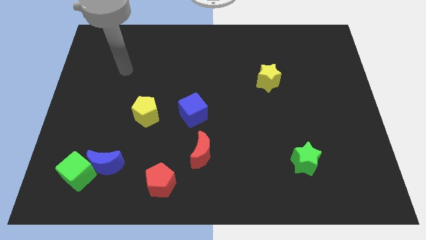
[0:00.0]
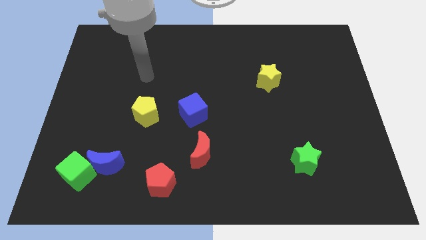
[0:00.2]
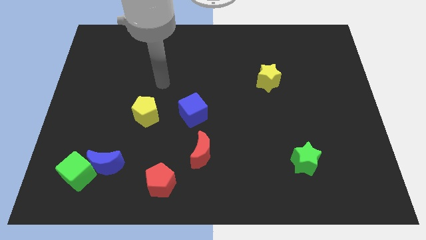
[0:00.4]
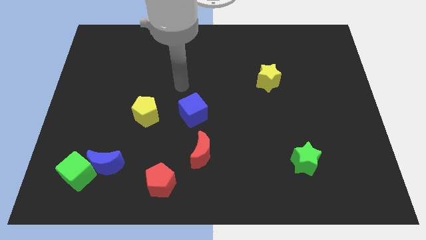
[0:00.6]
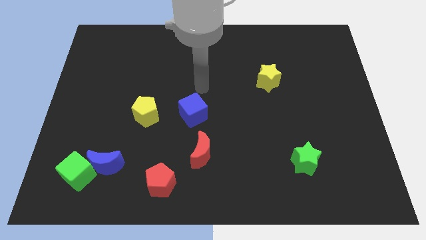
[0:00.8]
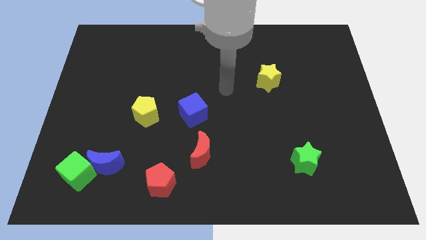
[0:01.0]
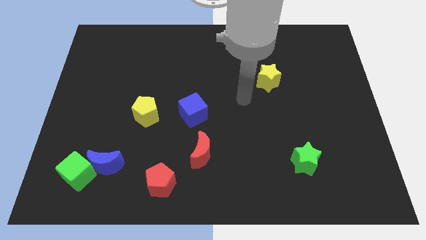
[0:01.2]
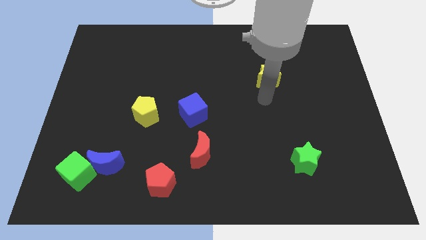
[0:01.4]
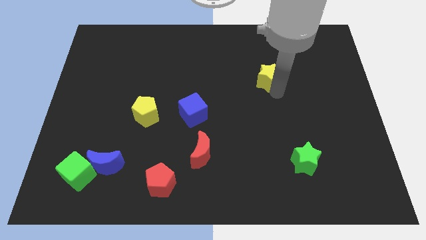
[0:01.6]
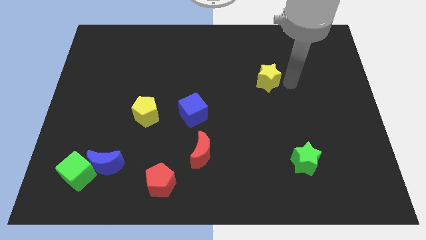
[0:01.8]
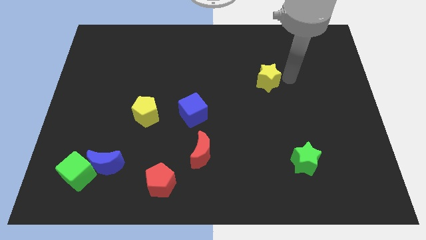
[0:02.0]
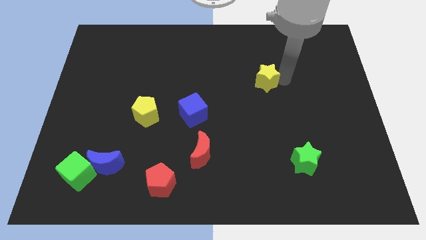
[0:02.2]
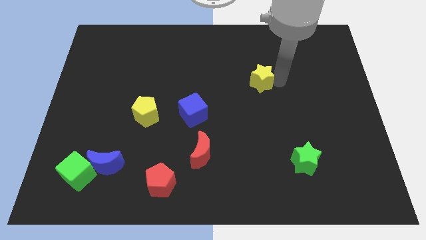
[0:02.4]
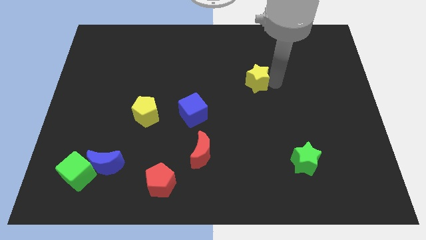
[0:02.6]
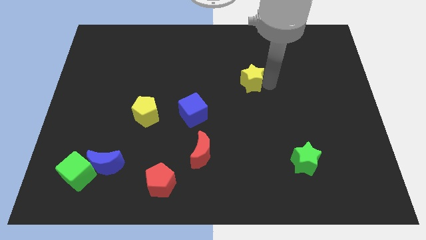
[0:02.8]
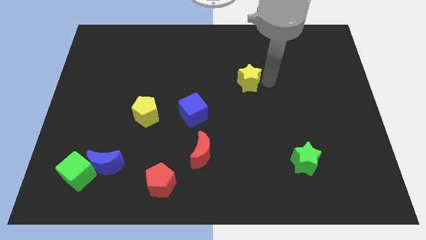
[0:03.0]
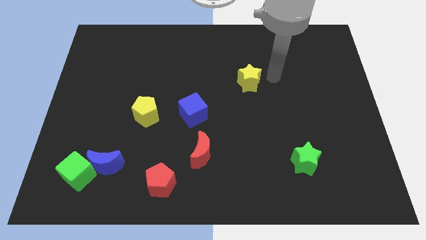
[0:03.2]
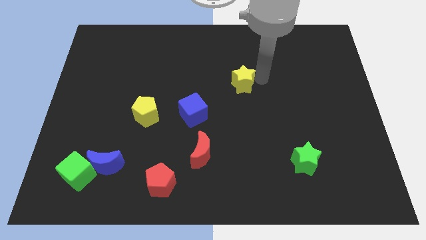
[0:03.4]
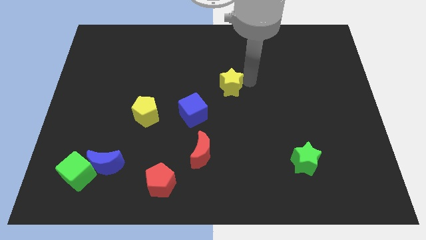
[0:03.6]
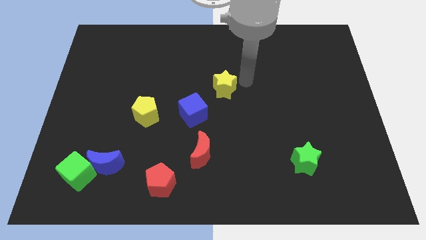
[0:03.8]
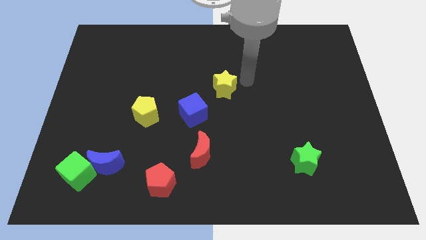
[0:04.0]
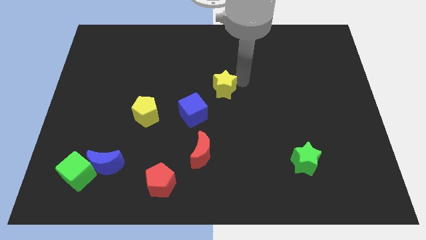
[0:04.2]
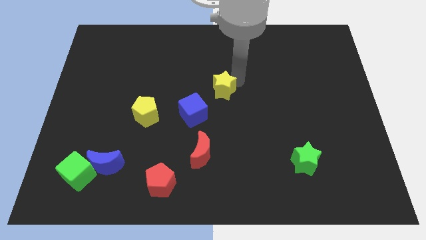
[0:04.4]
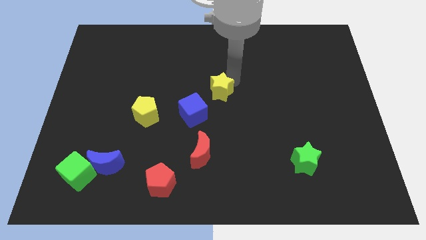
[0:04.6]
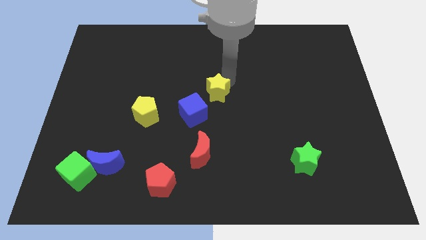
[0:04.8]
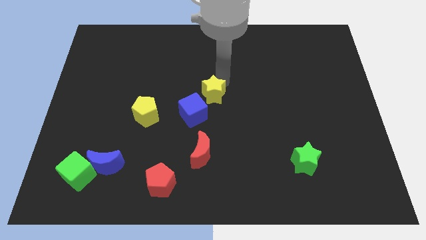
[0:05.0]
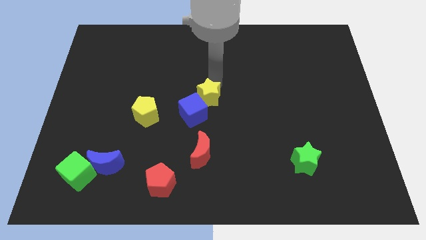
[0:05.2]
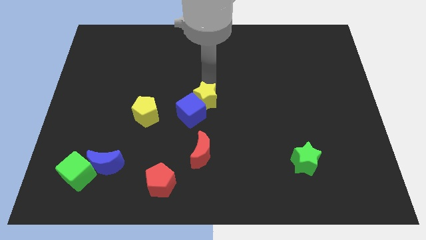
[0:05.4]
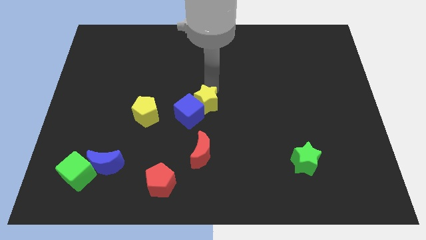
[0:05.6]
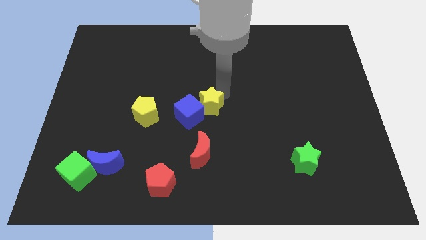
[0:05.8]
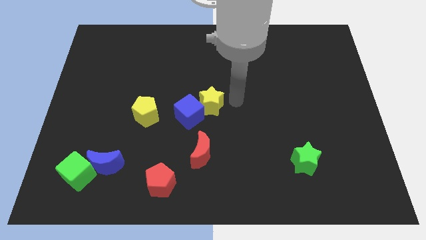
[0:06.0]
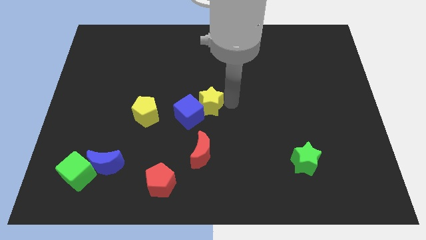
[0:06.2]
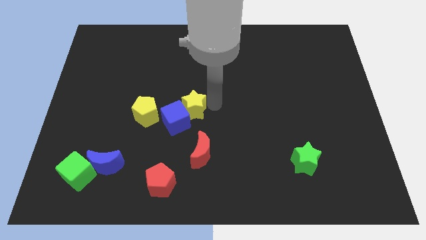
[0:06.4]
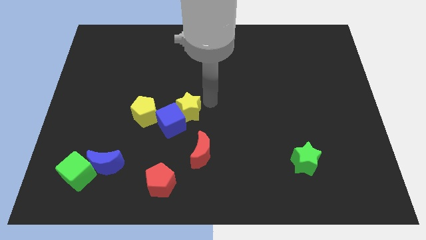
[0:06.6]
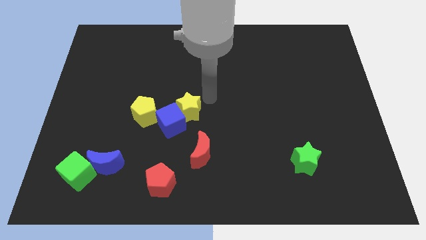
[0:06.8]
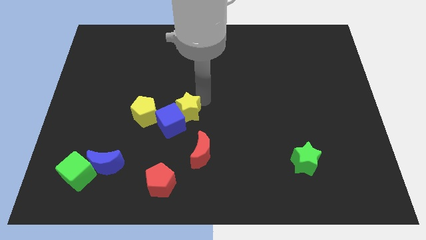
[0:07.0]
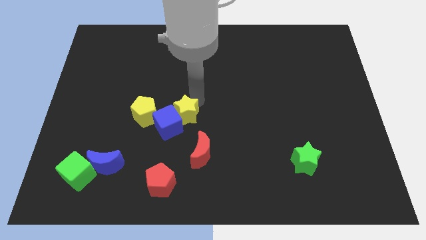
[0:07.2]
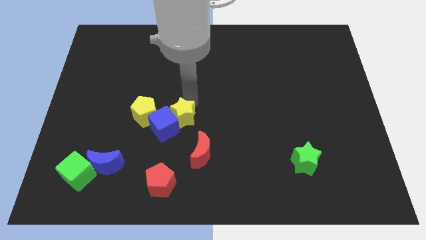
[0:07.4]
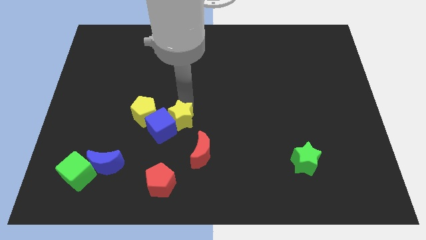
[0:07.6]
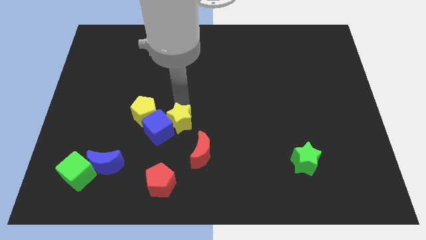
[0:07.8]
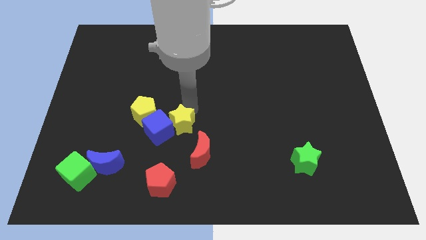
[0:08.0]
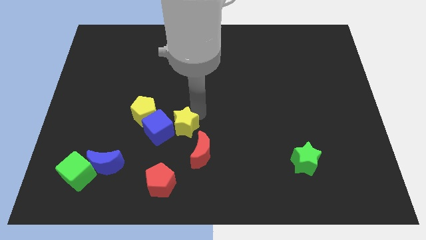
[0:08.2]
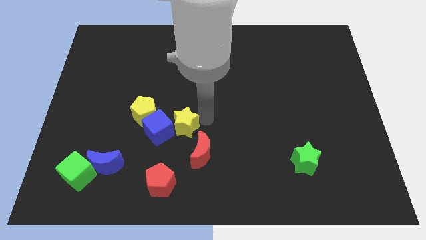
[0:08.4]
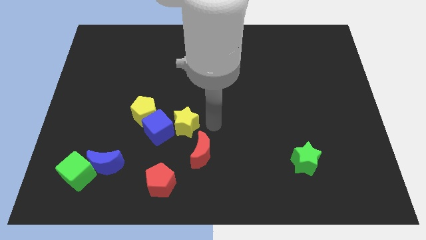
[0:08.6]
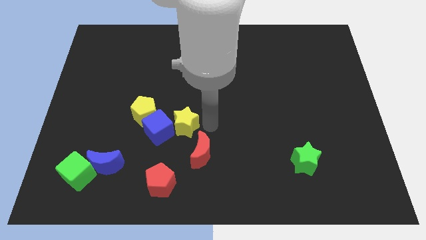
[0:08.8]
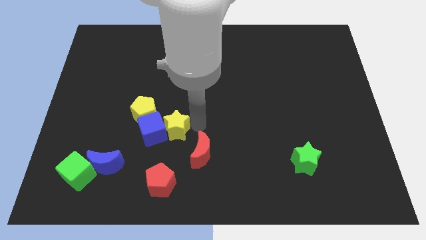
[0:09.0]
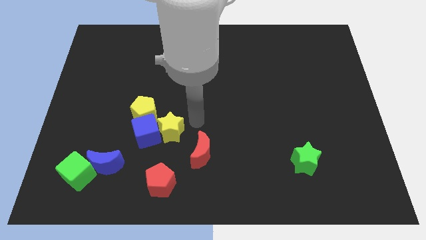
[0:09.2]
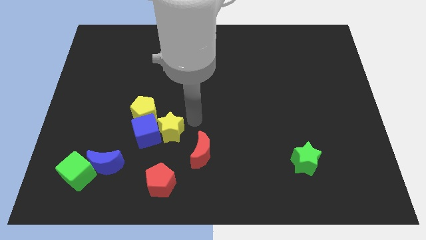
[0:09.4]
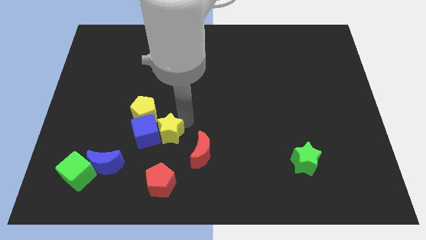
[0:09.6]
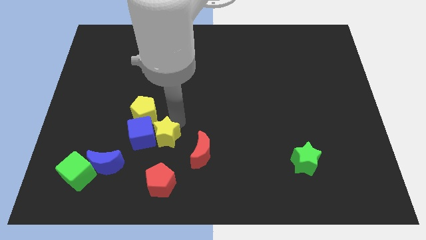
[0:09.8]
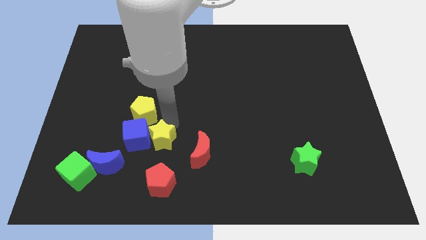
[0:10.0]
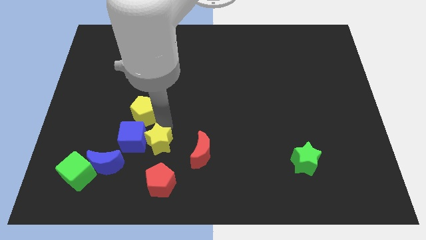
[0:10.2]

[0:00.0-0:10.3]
slide the yellow star to the top right side of the blue moon

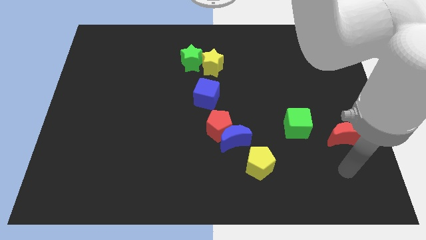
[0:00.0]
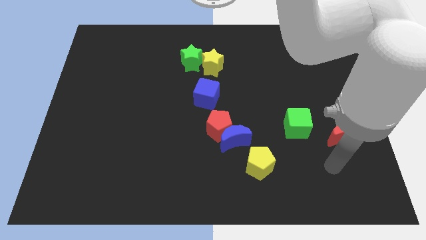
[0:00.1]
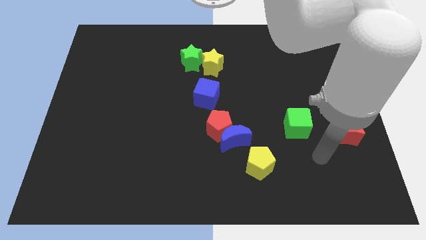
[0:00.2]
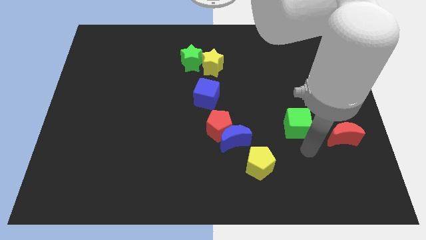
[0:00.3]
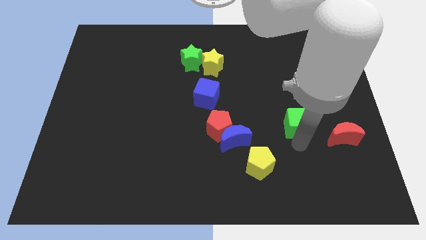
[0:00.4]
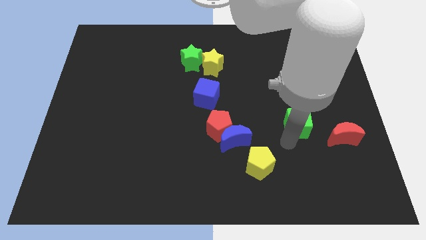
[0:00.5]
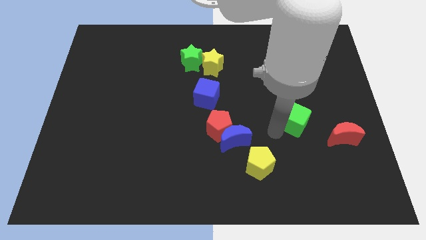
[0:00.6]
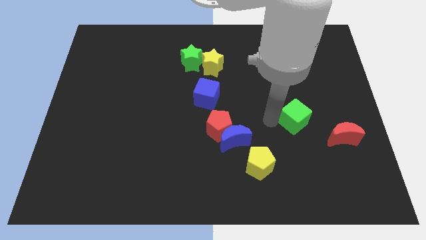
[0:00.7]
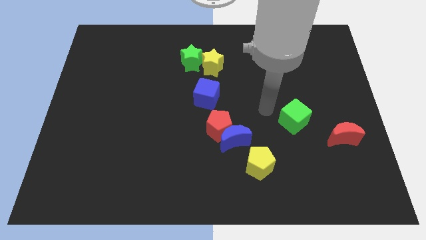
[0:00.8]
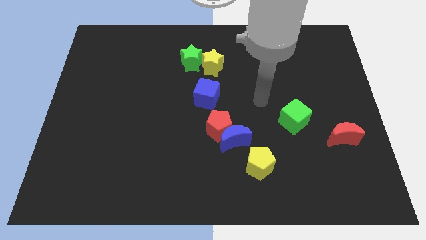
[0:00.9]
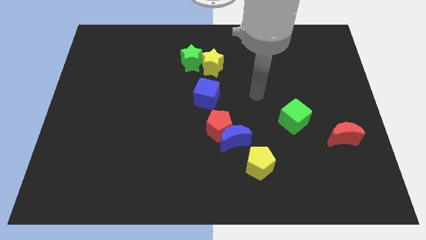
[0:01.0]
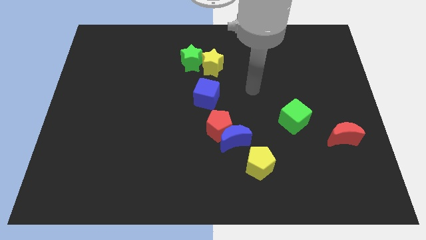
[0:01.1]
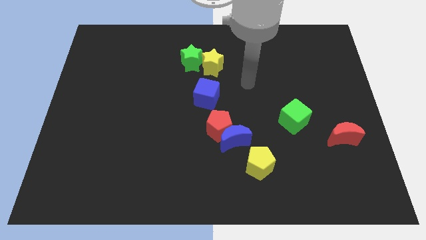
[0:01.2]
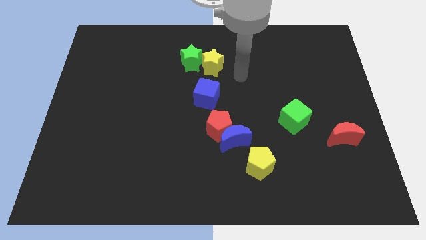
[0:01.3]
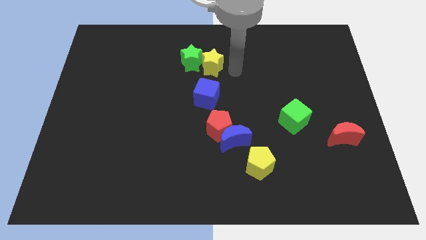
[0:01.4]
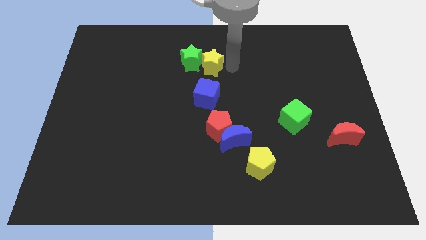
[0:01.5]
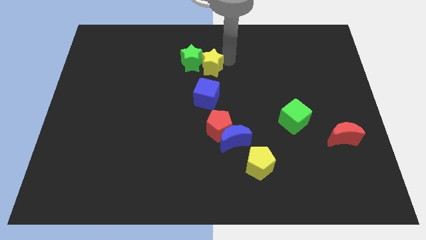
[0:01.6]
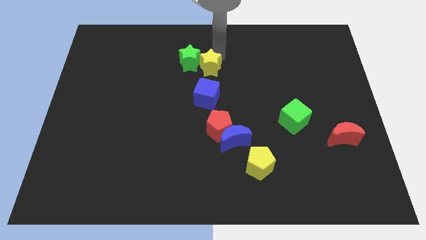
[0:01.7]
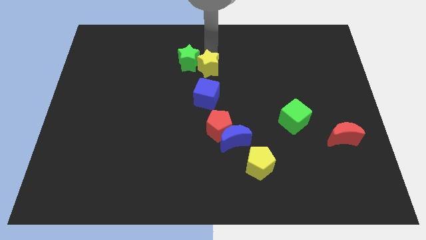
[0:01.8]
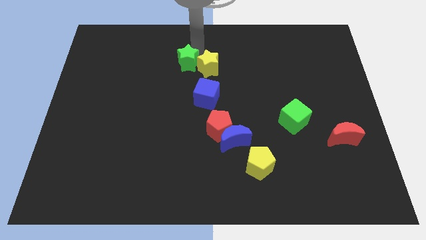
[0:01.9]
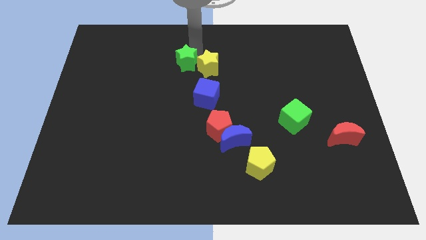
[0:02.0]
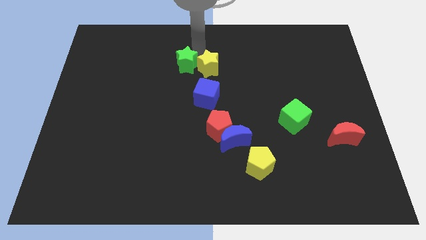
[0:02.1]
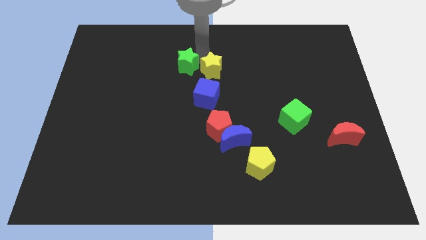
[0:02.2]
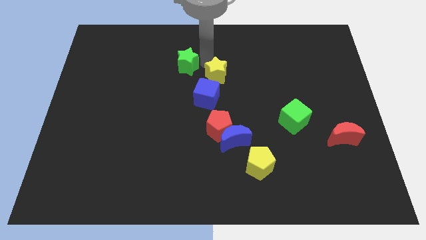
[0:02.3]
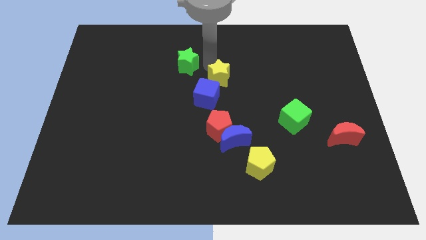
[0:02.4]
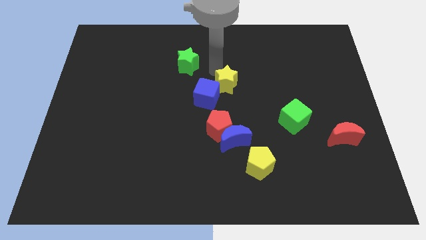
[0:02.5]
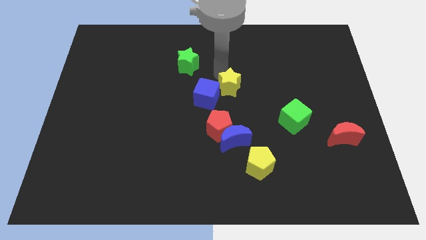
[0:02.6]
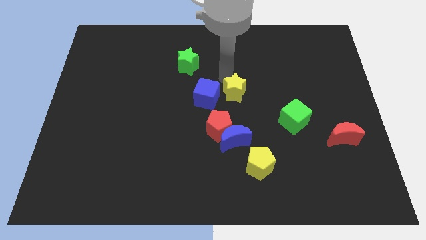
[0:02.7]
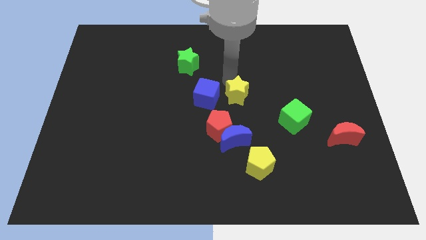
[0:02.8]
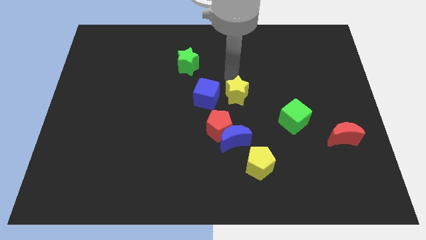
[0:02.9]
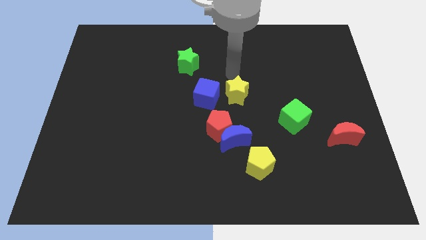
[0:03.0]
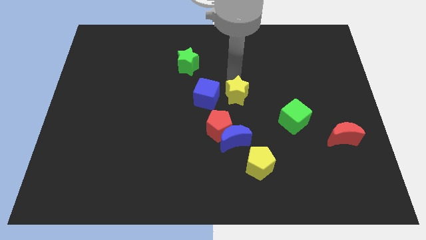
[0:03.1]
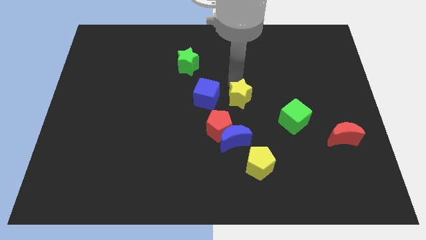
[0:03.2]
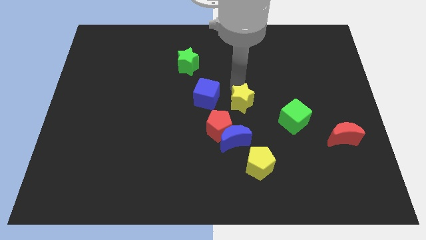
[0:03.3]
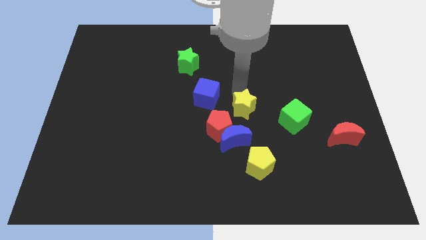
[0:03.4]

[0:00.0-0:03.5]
slide the yellow star above the yellow pentagon
